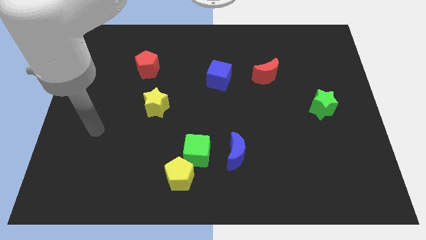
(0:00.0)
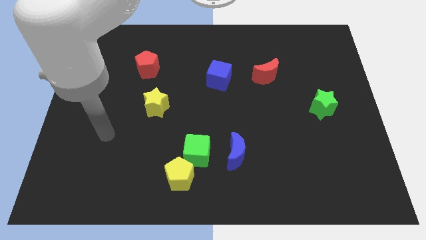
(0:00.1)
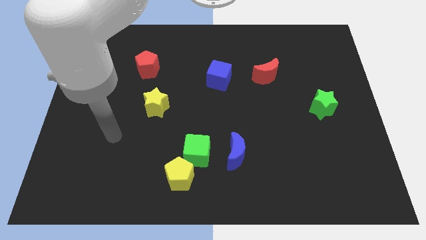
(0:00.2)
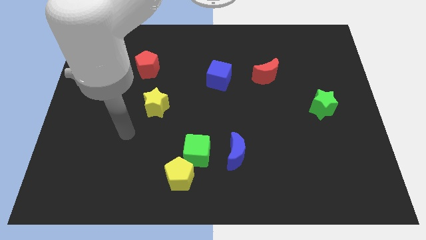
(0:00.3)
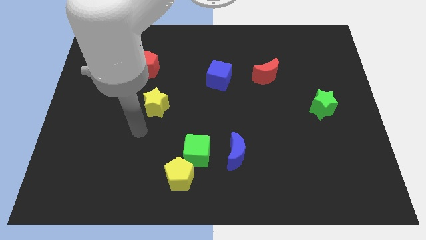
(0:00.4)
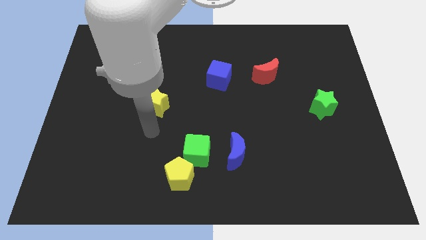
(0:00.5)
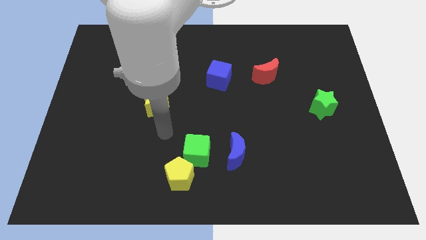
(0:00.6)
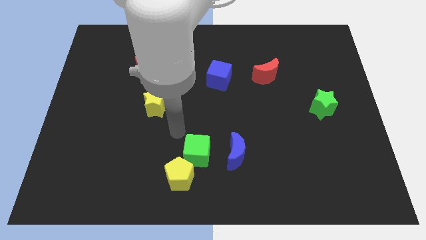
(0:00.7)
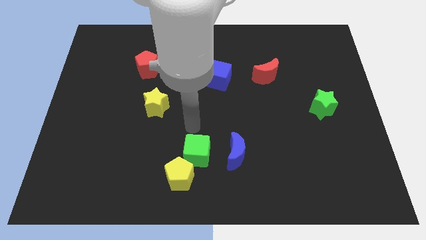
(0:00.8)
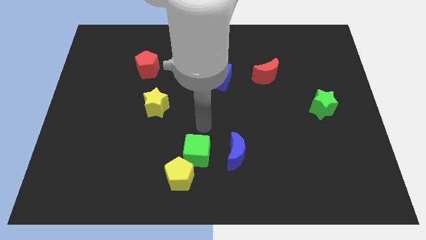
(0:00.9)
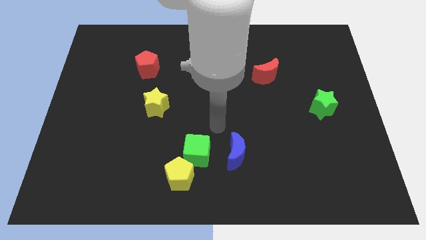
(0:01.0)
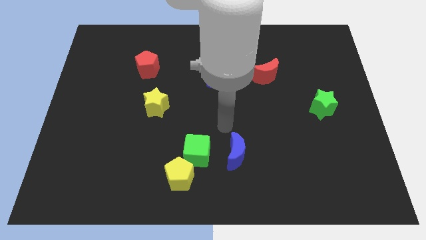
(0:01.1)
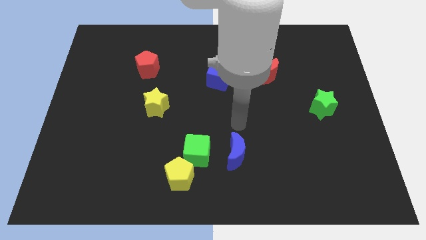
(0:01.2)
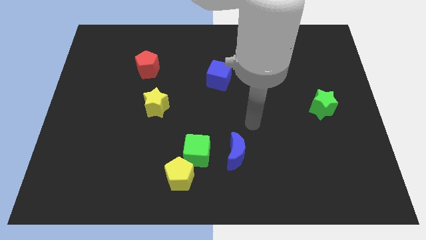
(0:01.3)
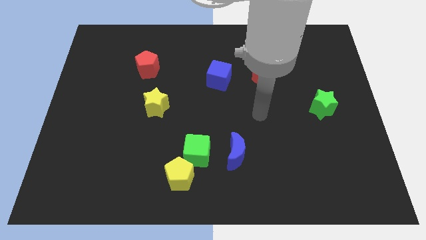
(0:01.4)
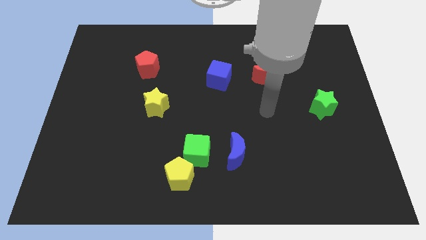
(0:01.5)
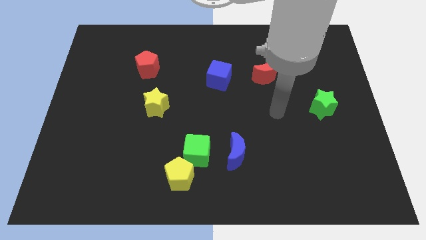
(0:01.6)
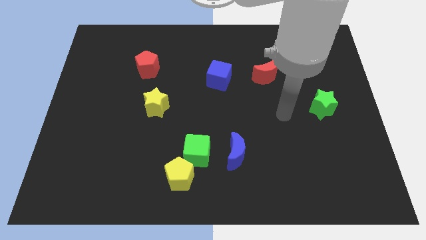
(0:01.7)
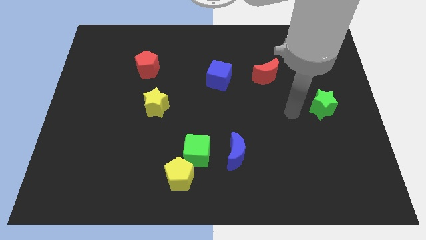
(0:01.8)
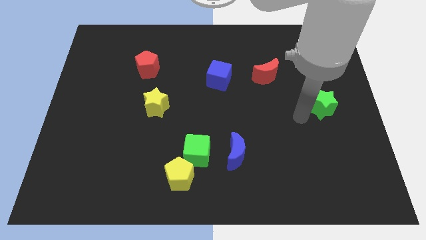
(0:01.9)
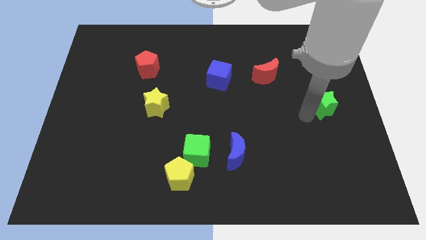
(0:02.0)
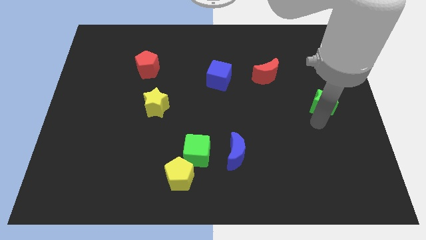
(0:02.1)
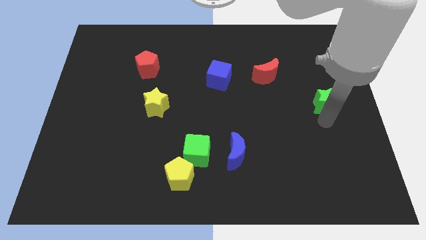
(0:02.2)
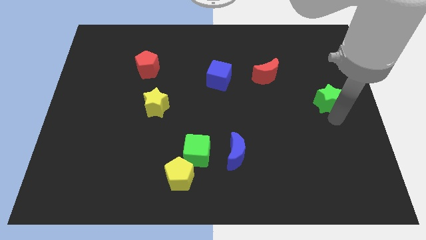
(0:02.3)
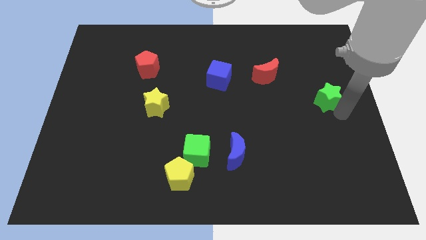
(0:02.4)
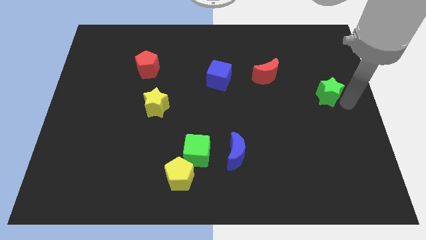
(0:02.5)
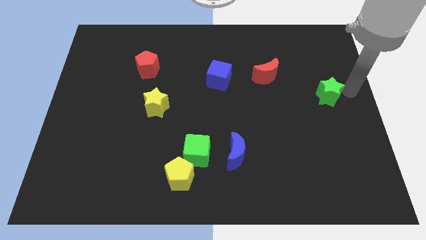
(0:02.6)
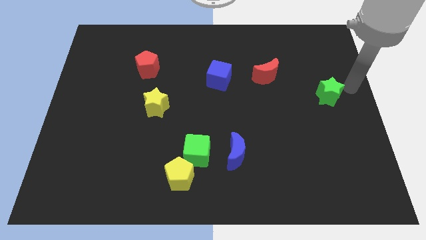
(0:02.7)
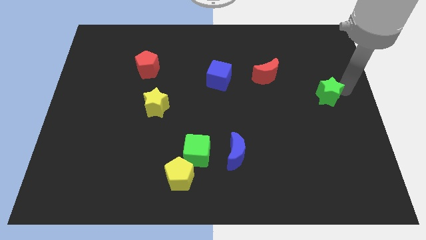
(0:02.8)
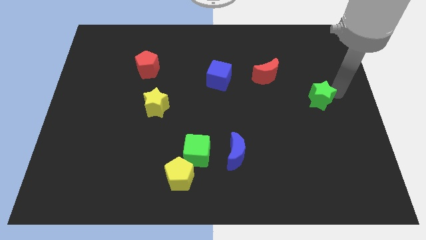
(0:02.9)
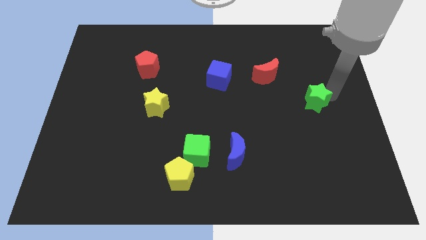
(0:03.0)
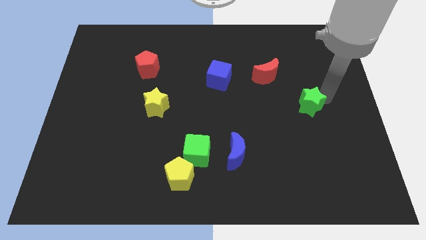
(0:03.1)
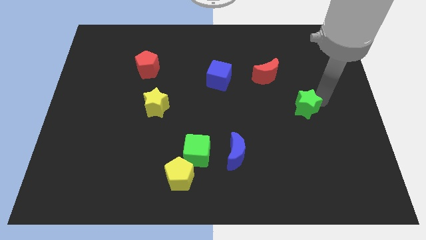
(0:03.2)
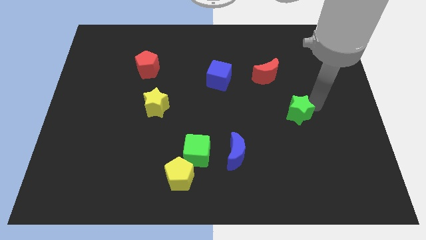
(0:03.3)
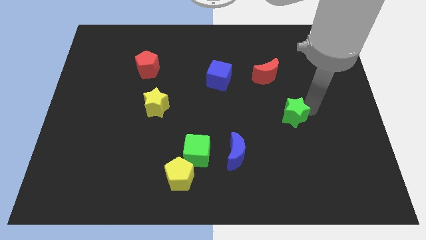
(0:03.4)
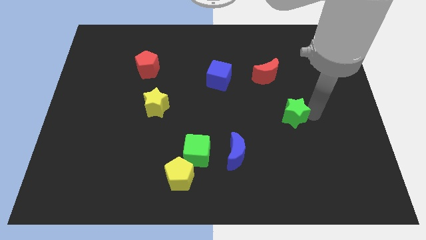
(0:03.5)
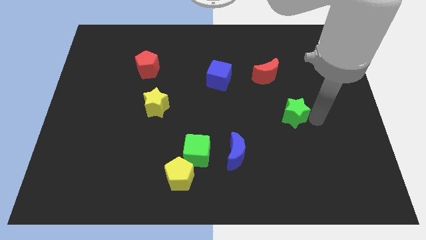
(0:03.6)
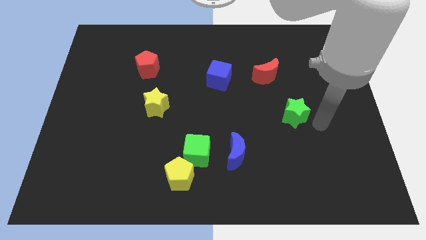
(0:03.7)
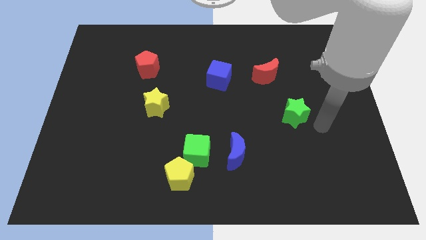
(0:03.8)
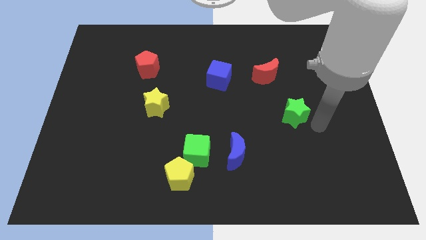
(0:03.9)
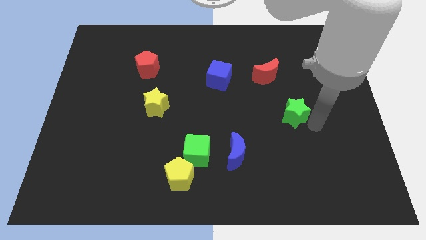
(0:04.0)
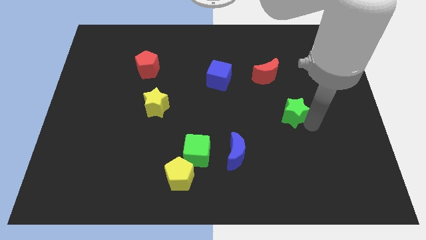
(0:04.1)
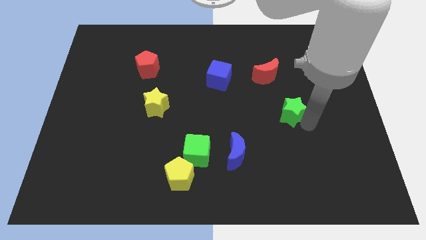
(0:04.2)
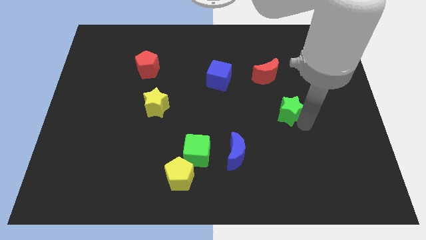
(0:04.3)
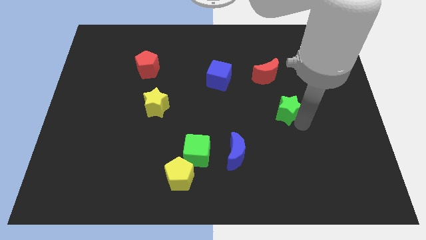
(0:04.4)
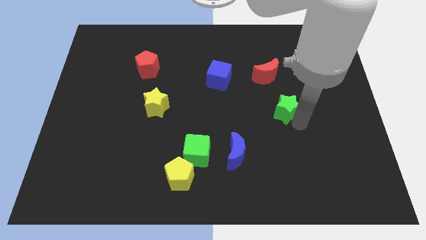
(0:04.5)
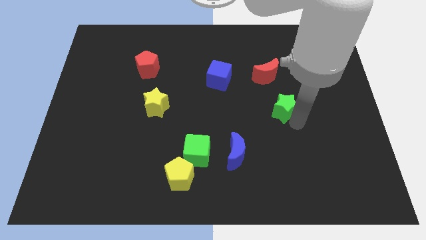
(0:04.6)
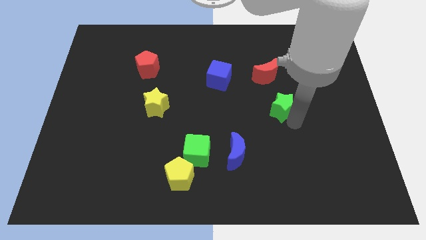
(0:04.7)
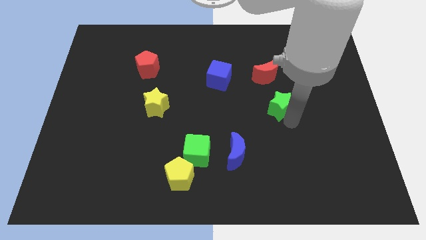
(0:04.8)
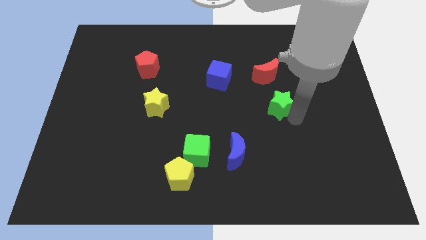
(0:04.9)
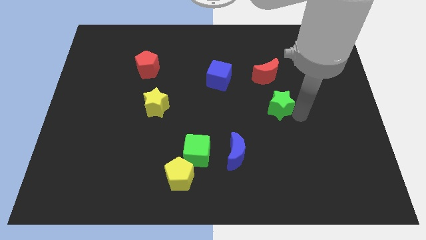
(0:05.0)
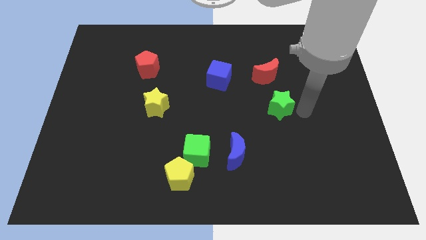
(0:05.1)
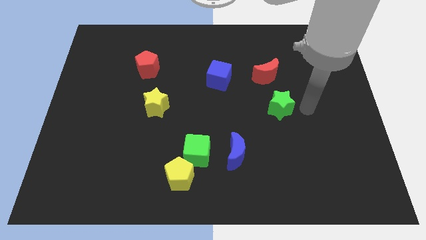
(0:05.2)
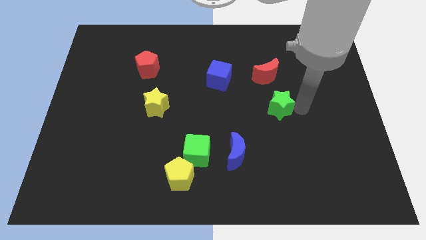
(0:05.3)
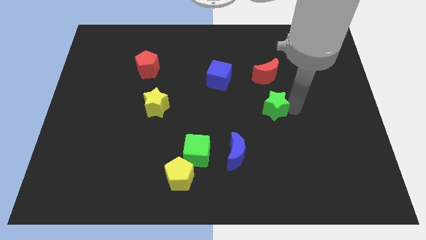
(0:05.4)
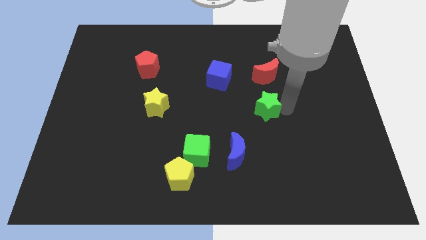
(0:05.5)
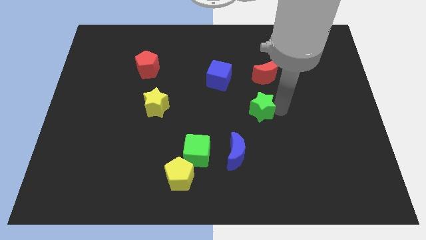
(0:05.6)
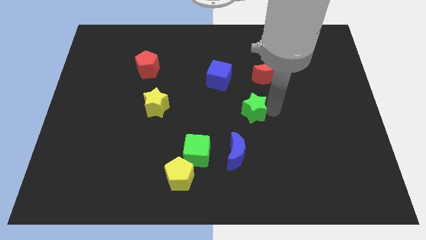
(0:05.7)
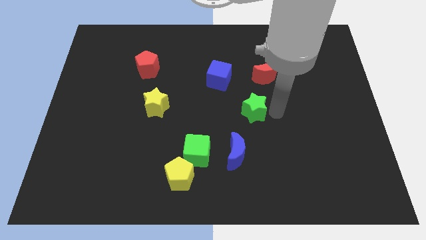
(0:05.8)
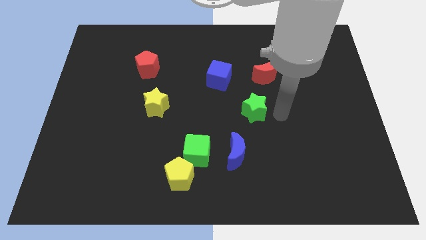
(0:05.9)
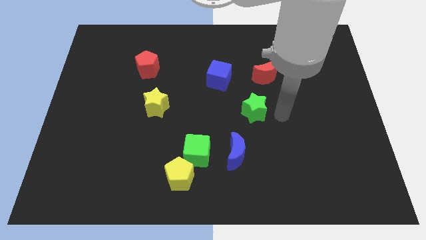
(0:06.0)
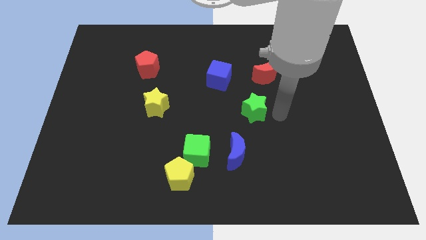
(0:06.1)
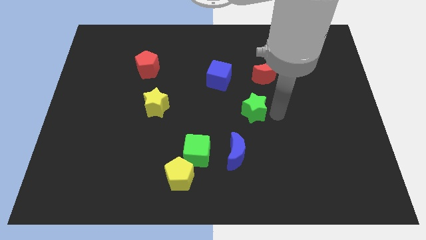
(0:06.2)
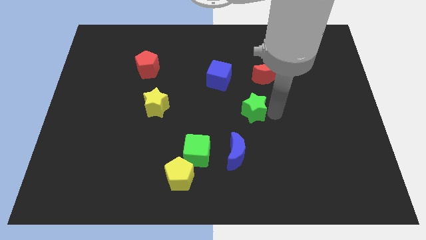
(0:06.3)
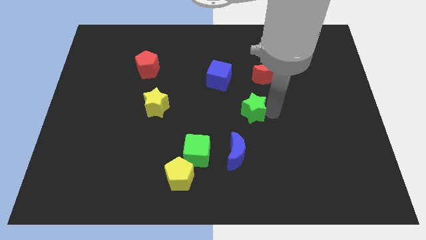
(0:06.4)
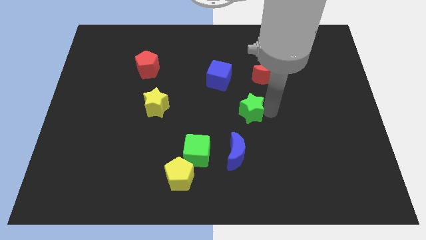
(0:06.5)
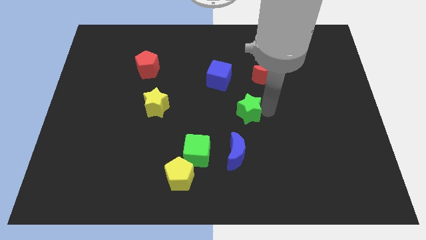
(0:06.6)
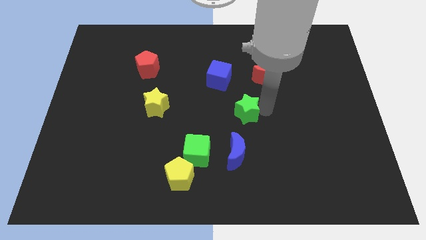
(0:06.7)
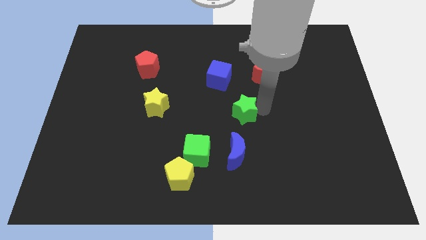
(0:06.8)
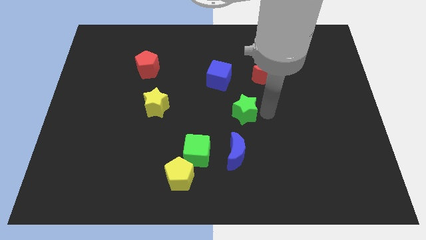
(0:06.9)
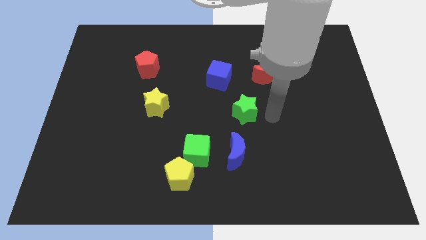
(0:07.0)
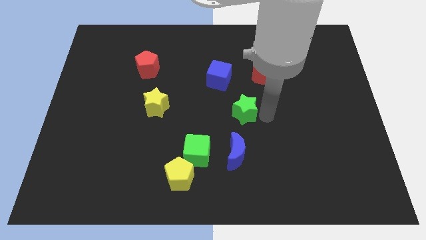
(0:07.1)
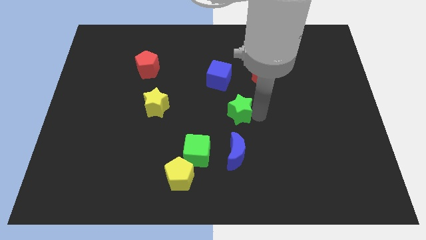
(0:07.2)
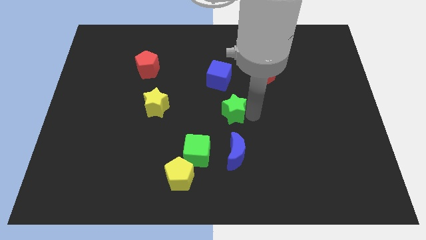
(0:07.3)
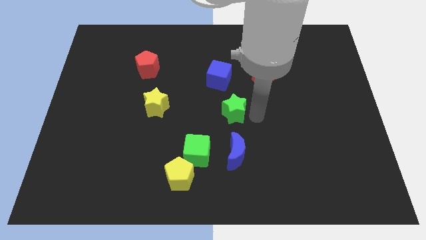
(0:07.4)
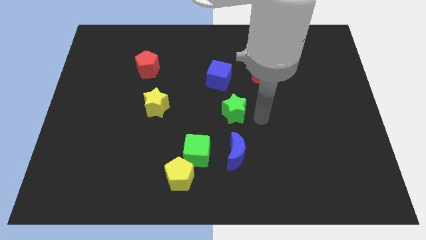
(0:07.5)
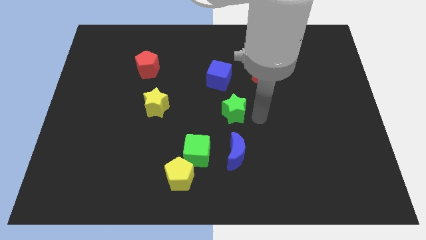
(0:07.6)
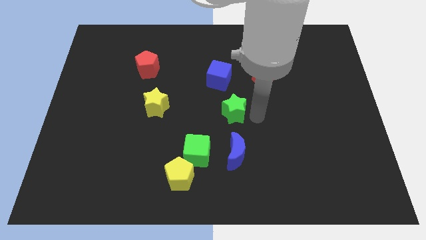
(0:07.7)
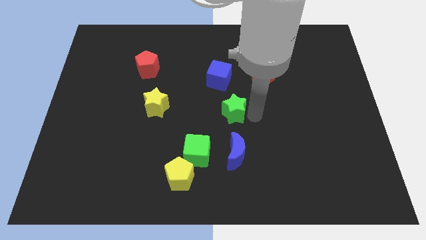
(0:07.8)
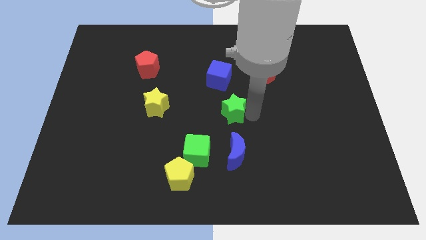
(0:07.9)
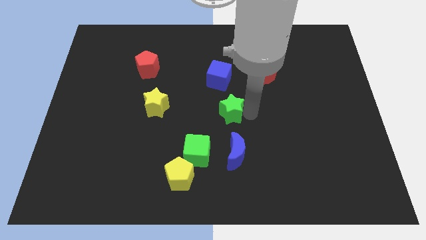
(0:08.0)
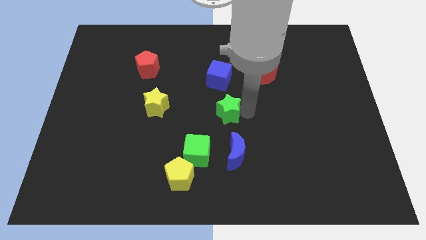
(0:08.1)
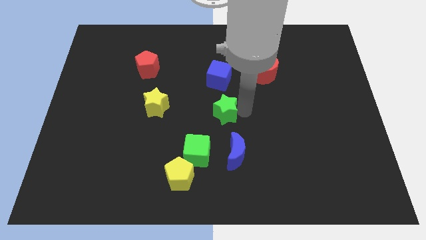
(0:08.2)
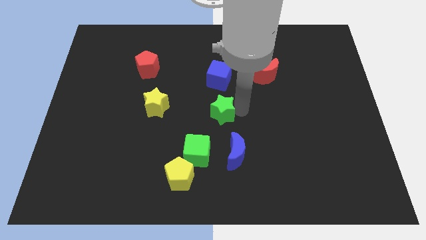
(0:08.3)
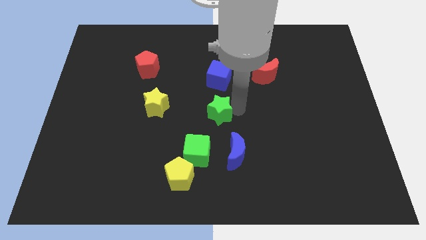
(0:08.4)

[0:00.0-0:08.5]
push the green star to the top of the green cube
